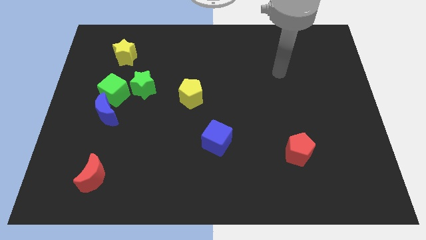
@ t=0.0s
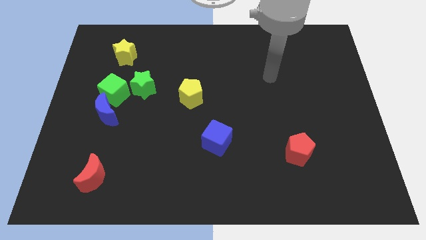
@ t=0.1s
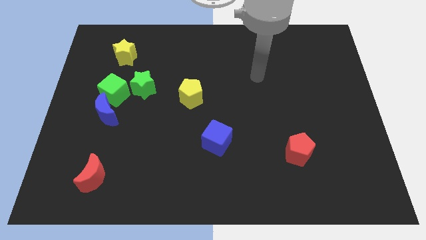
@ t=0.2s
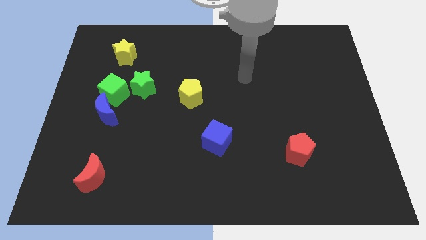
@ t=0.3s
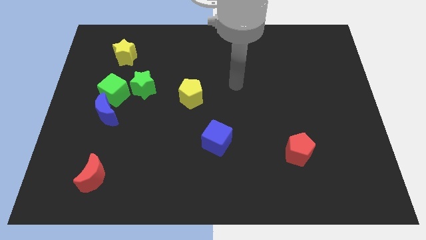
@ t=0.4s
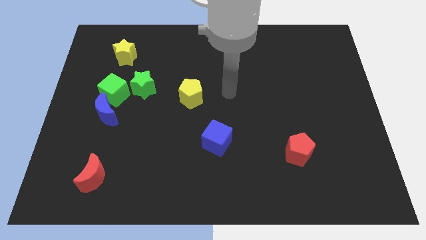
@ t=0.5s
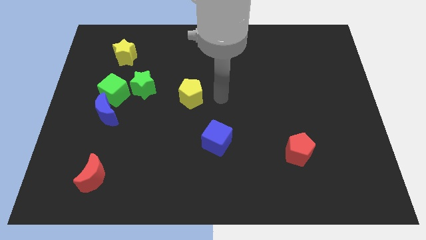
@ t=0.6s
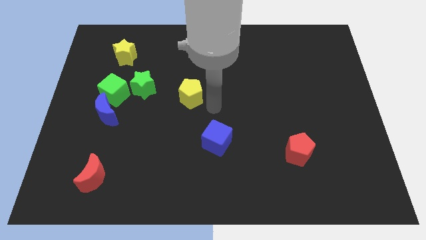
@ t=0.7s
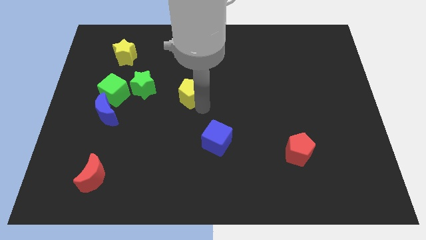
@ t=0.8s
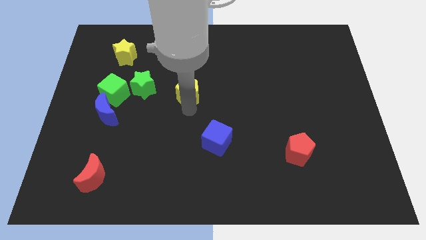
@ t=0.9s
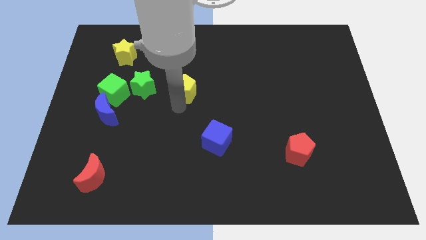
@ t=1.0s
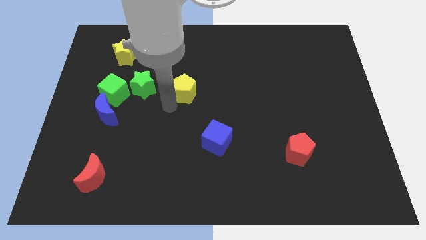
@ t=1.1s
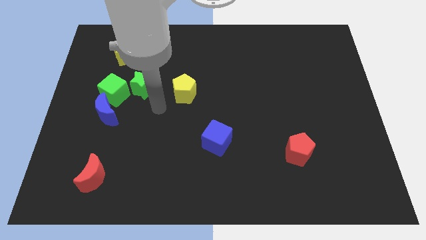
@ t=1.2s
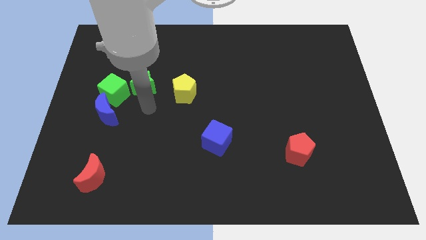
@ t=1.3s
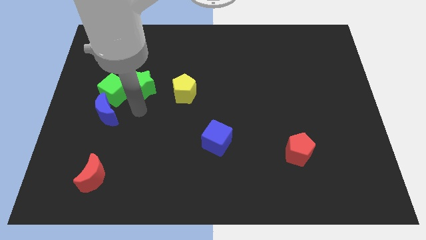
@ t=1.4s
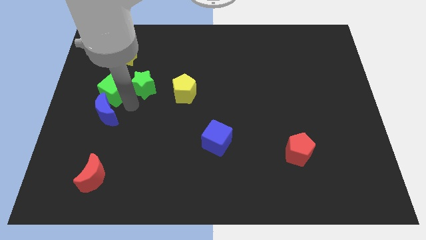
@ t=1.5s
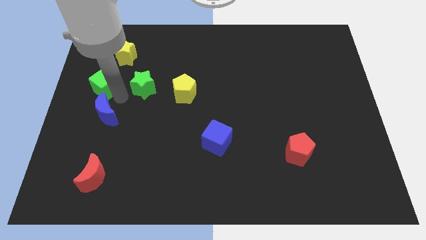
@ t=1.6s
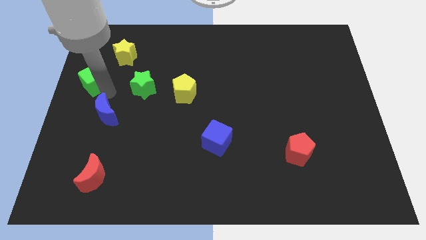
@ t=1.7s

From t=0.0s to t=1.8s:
pull the blue moon apart from the green cube

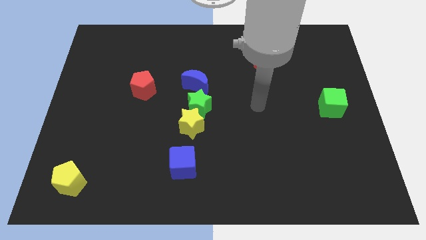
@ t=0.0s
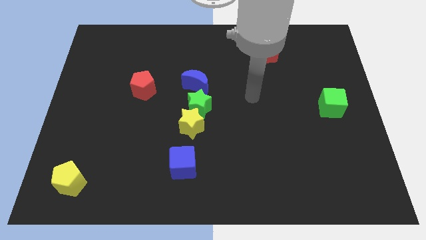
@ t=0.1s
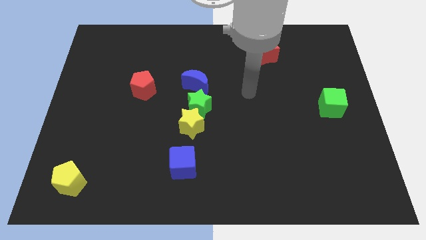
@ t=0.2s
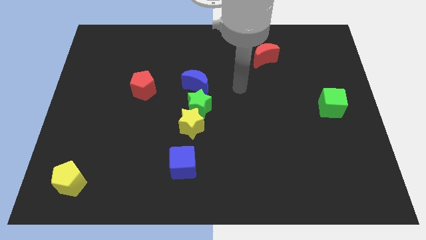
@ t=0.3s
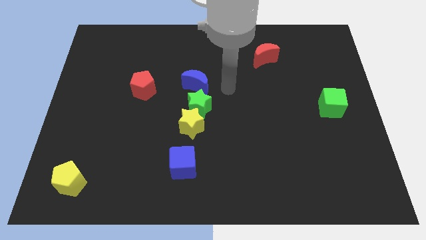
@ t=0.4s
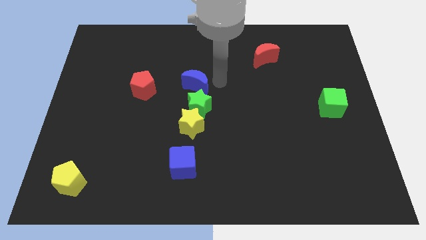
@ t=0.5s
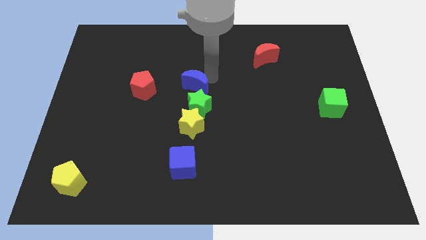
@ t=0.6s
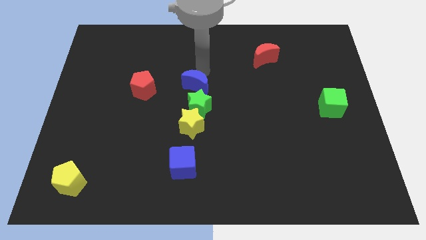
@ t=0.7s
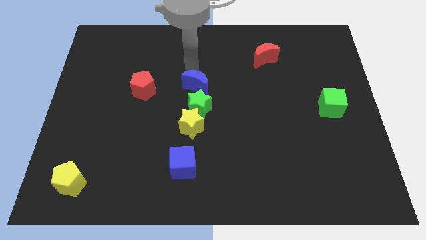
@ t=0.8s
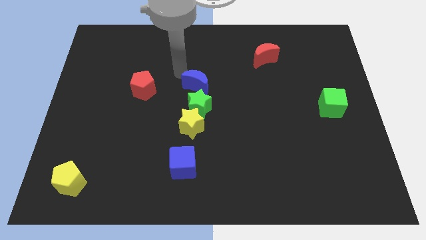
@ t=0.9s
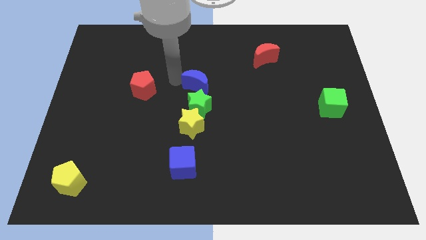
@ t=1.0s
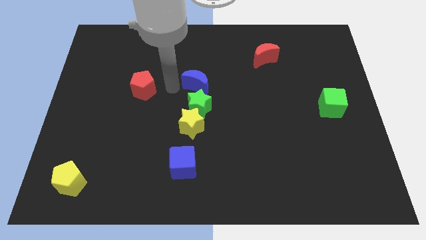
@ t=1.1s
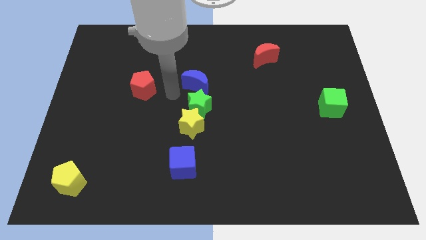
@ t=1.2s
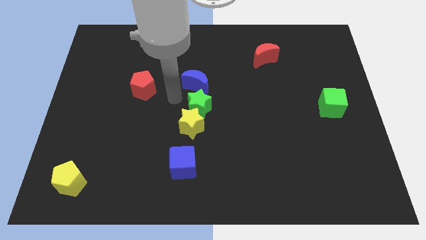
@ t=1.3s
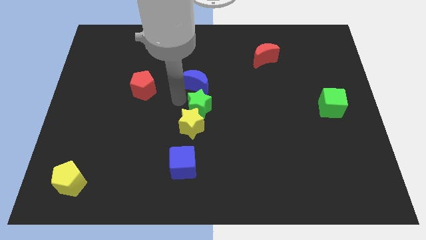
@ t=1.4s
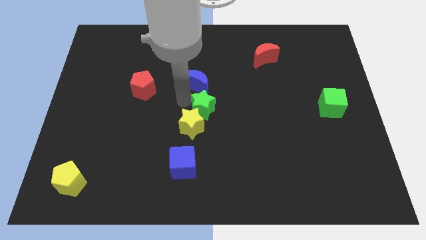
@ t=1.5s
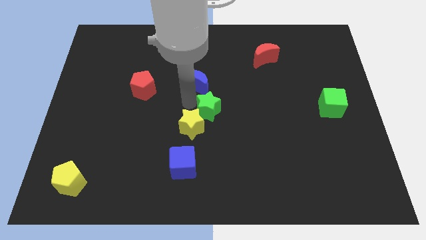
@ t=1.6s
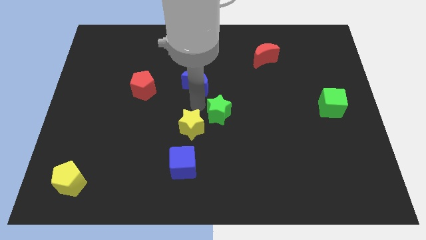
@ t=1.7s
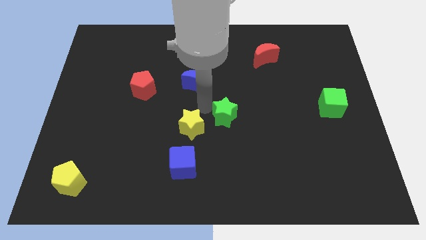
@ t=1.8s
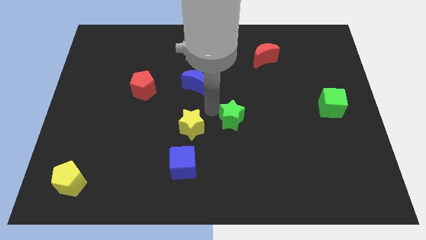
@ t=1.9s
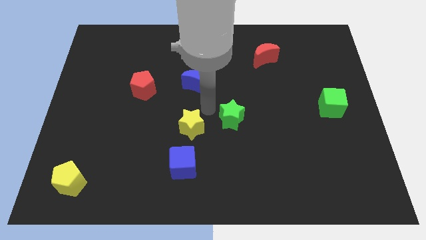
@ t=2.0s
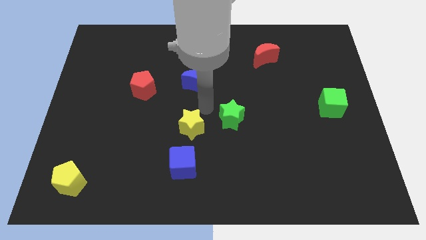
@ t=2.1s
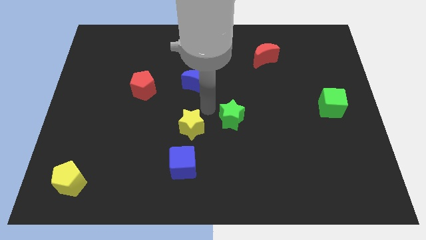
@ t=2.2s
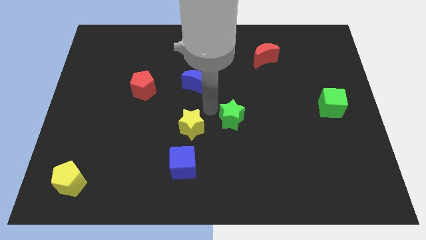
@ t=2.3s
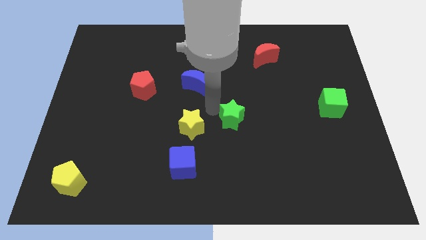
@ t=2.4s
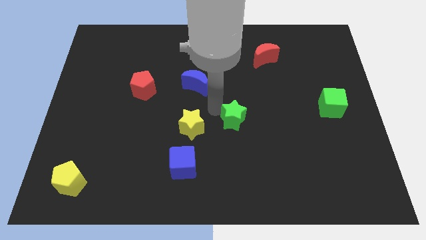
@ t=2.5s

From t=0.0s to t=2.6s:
pull the green star apart from the yellow star and blue moon

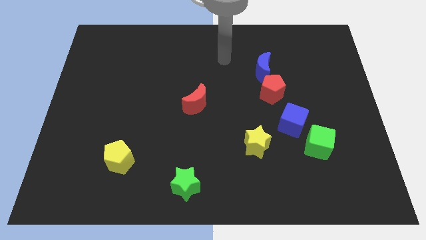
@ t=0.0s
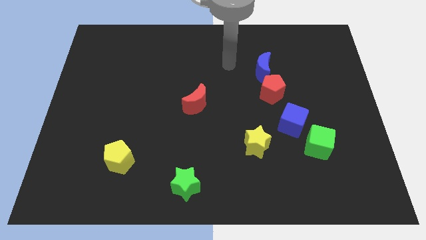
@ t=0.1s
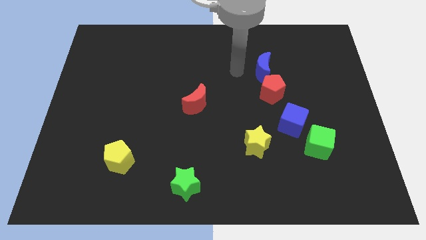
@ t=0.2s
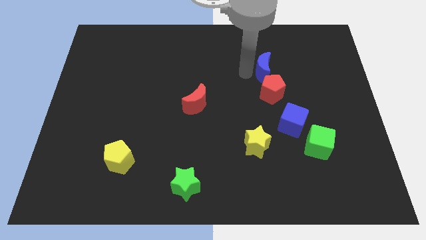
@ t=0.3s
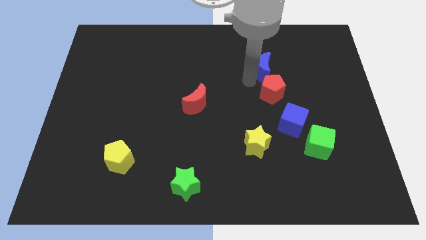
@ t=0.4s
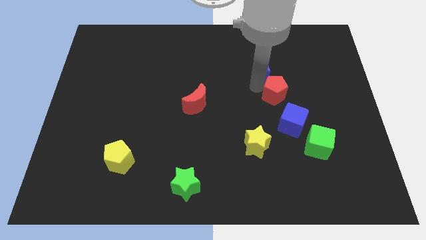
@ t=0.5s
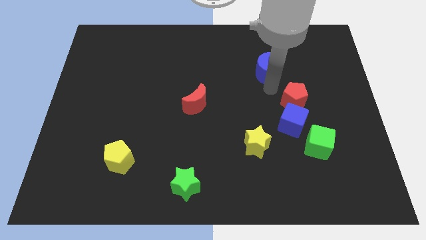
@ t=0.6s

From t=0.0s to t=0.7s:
separate the blue moon from the red pentagon

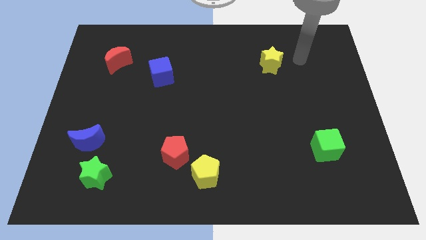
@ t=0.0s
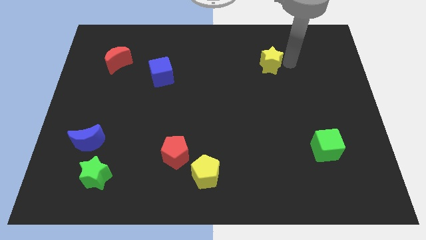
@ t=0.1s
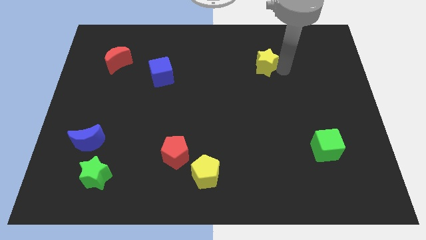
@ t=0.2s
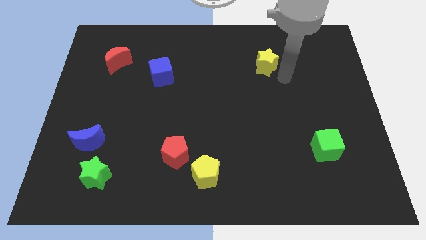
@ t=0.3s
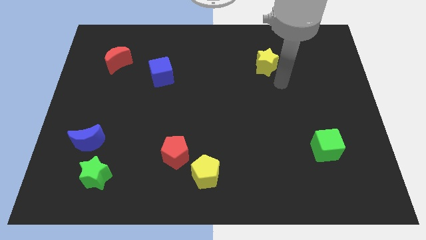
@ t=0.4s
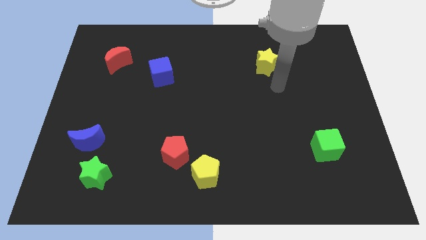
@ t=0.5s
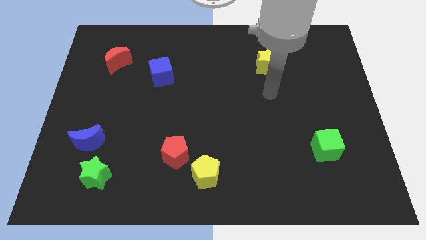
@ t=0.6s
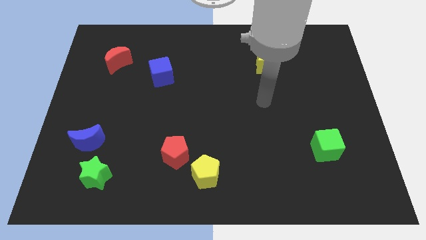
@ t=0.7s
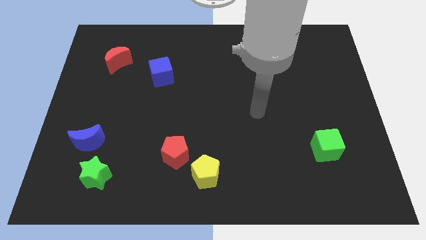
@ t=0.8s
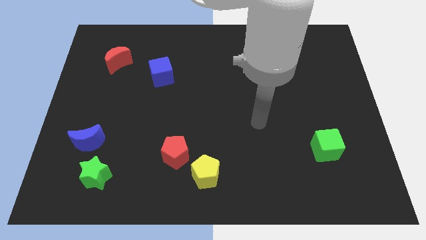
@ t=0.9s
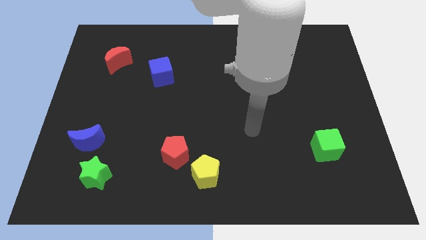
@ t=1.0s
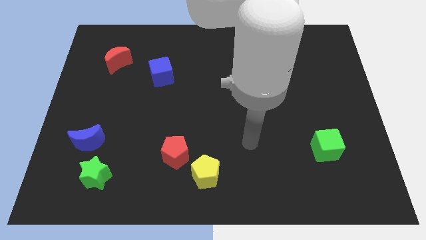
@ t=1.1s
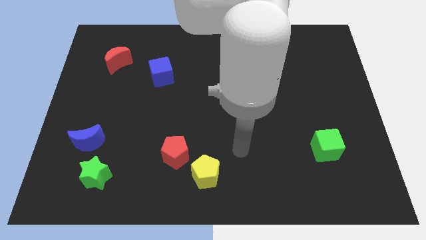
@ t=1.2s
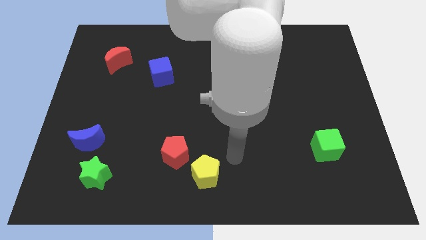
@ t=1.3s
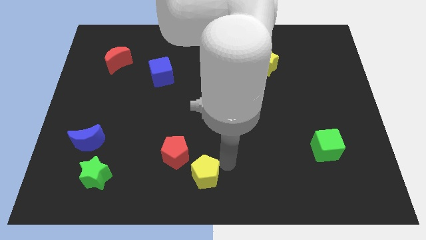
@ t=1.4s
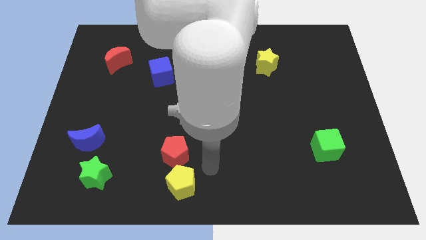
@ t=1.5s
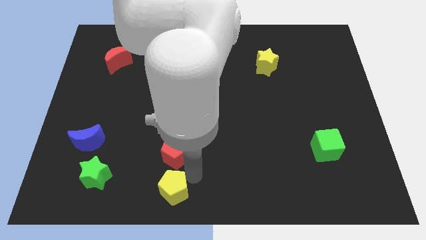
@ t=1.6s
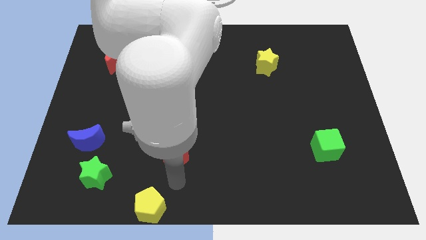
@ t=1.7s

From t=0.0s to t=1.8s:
move the red pentagon away from the yellow pentagon

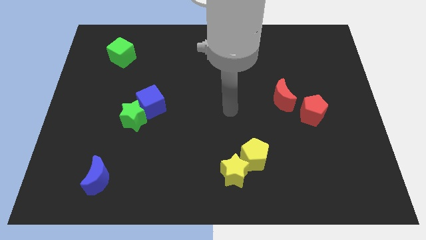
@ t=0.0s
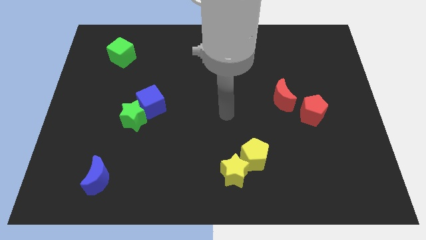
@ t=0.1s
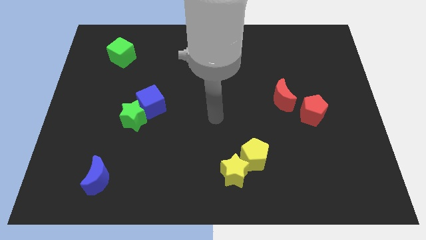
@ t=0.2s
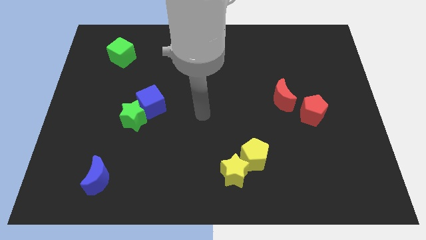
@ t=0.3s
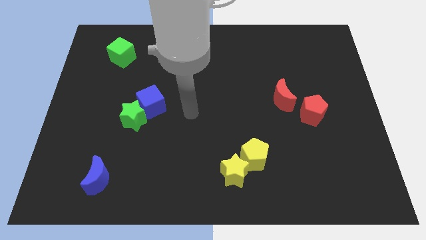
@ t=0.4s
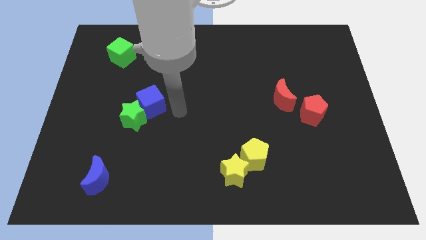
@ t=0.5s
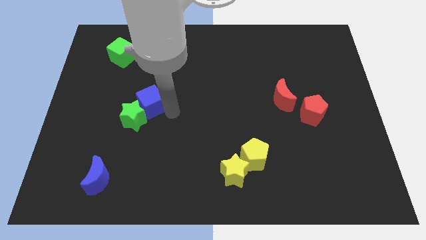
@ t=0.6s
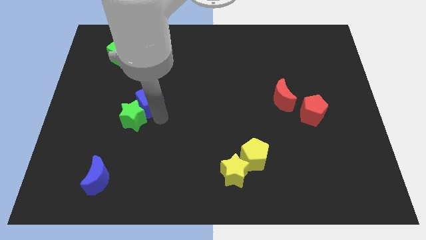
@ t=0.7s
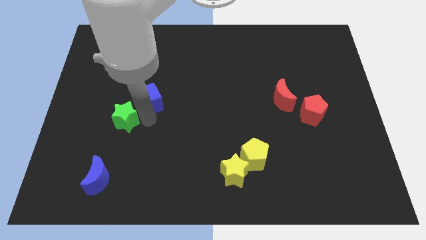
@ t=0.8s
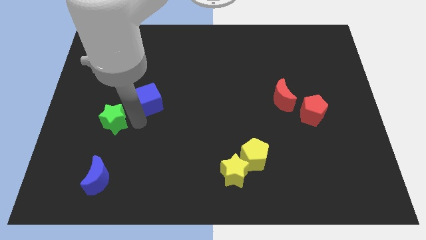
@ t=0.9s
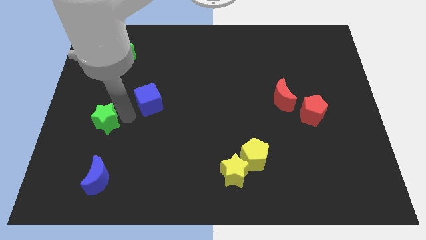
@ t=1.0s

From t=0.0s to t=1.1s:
pull the blue cube apart from the green star

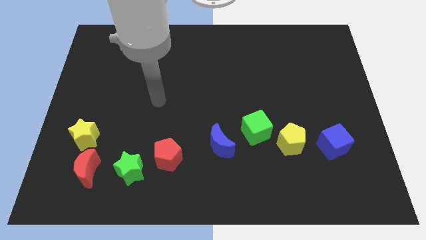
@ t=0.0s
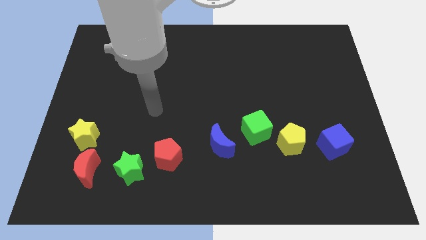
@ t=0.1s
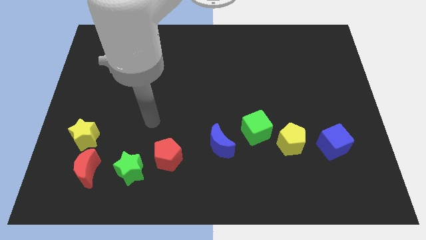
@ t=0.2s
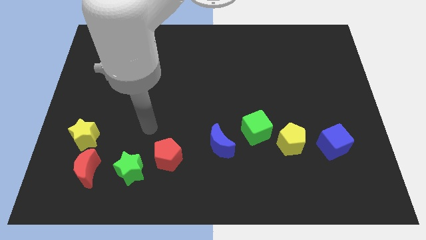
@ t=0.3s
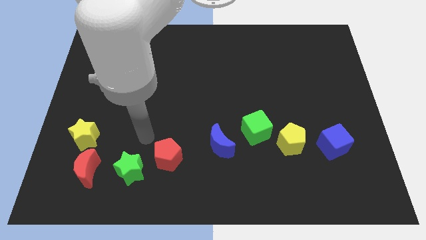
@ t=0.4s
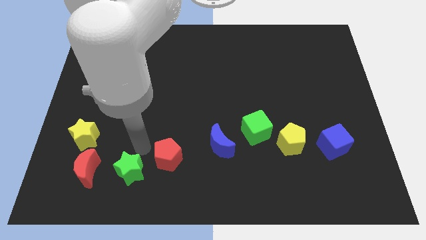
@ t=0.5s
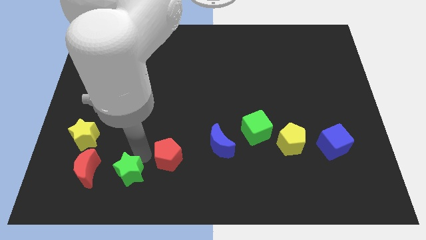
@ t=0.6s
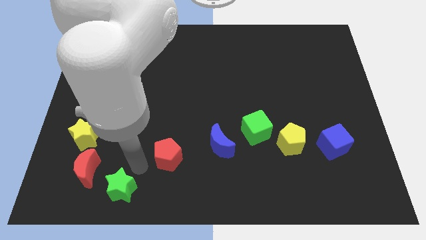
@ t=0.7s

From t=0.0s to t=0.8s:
move the red pentagon away from the green star

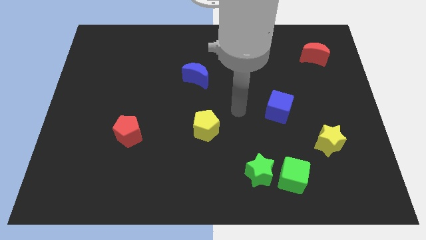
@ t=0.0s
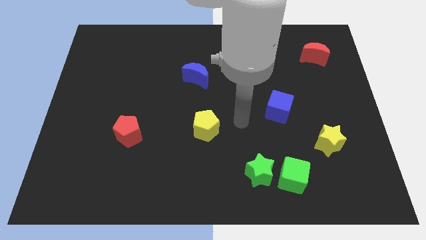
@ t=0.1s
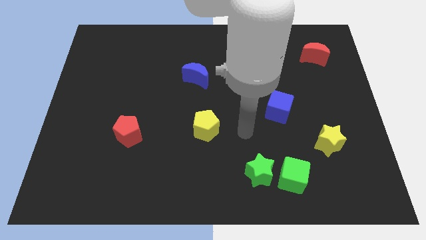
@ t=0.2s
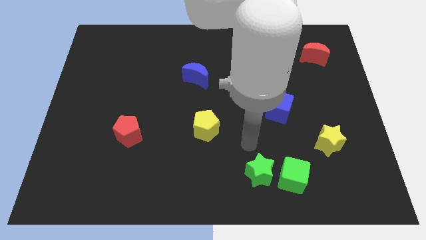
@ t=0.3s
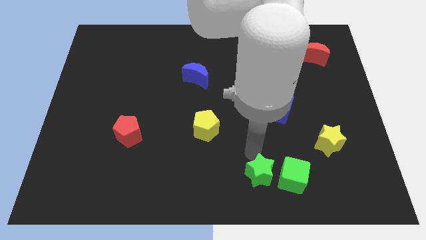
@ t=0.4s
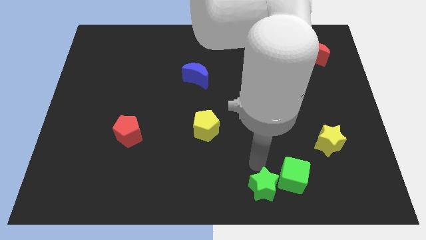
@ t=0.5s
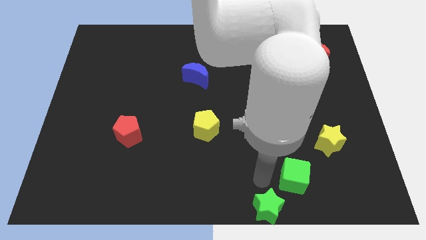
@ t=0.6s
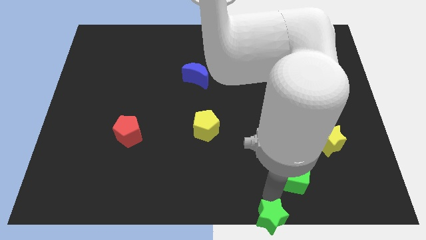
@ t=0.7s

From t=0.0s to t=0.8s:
separate the green cube from the green star
